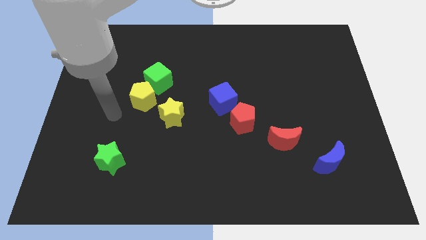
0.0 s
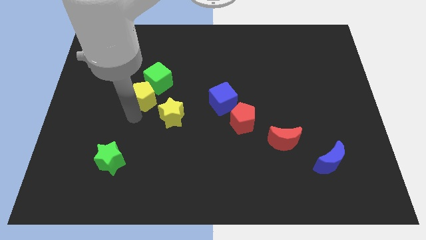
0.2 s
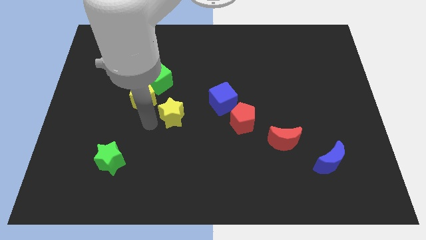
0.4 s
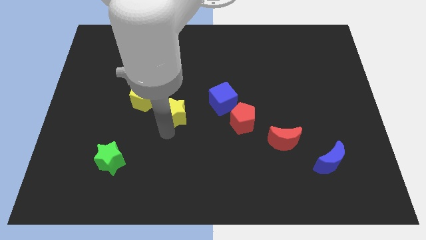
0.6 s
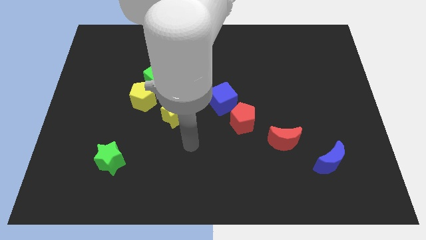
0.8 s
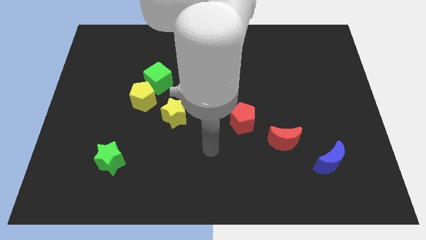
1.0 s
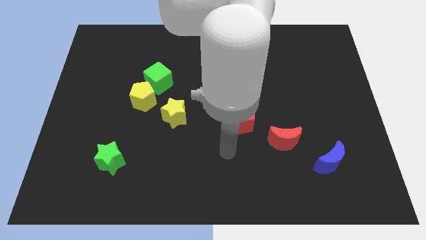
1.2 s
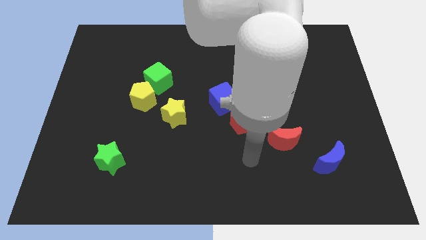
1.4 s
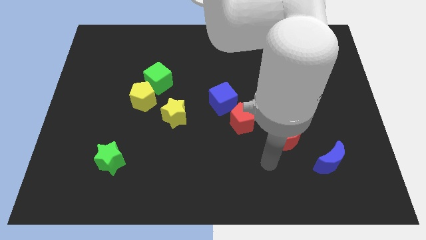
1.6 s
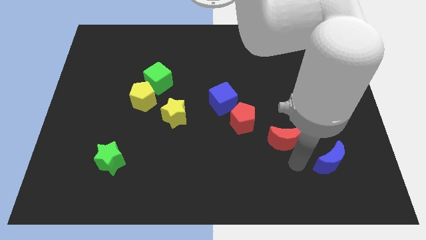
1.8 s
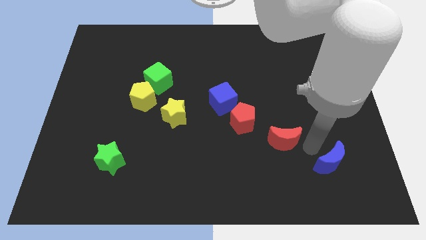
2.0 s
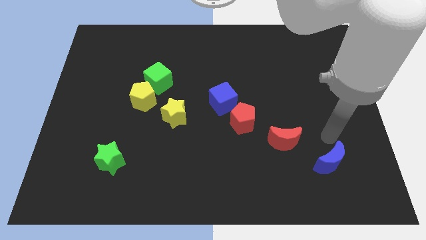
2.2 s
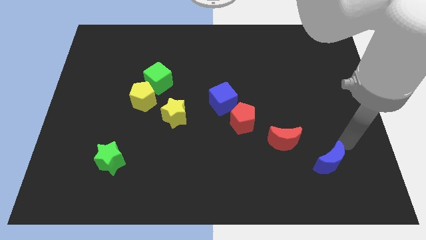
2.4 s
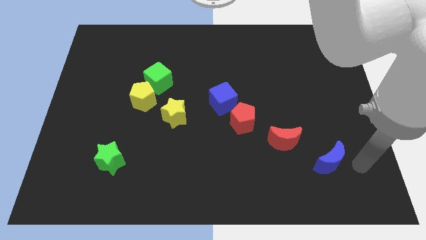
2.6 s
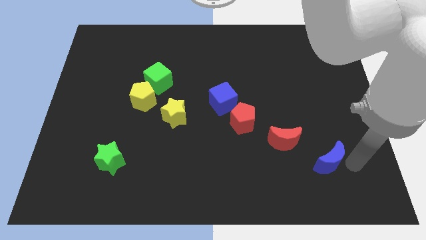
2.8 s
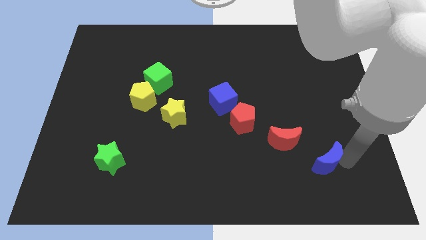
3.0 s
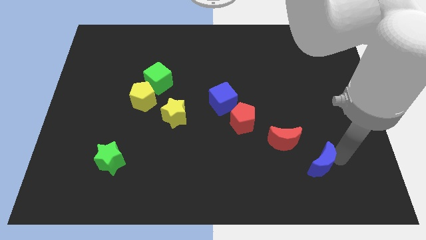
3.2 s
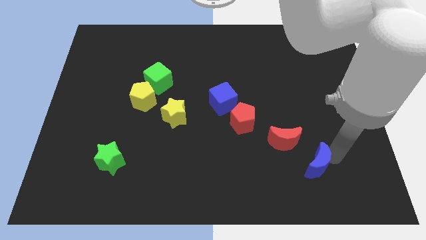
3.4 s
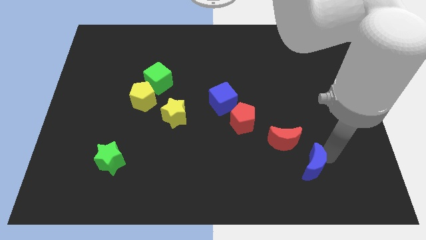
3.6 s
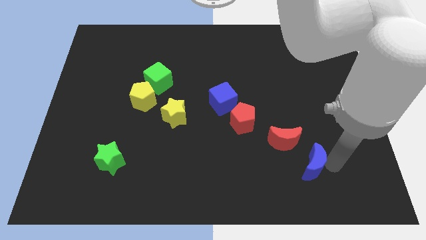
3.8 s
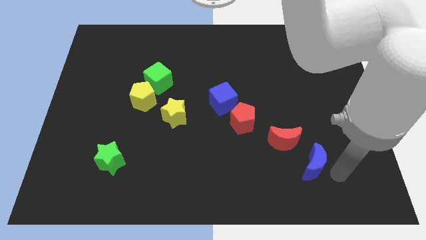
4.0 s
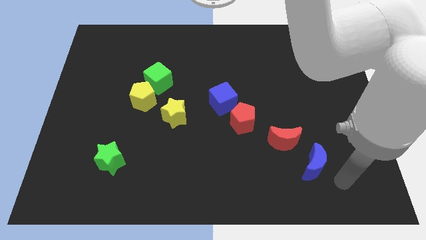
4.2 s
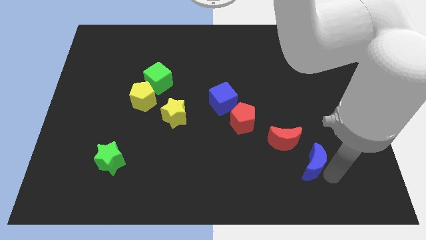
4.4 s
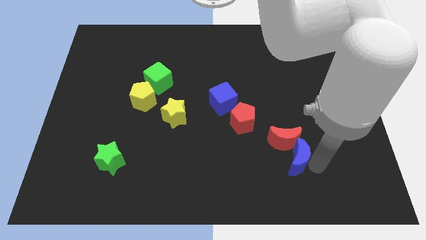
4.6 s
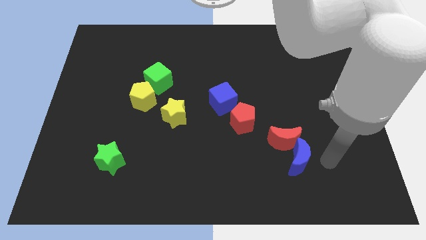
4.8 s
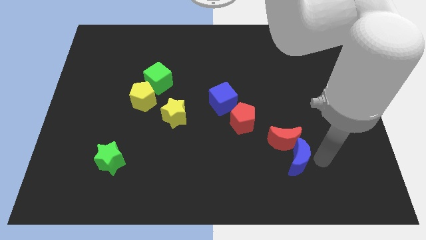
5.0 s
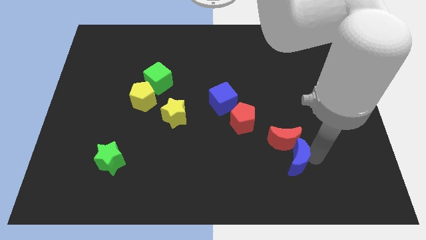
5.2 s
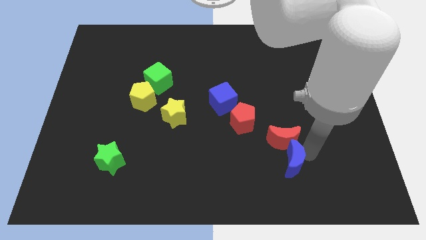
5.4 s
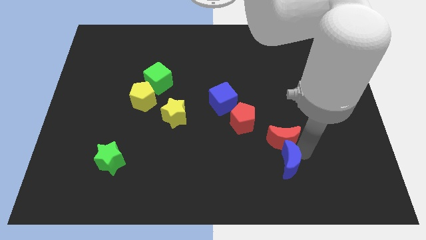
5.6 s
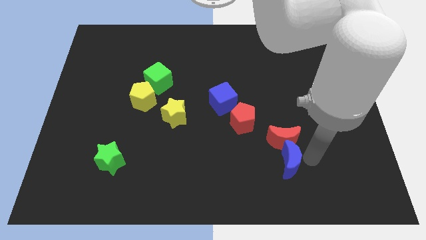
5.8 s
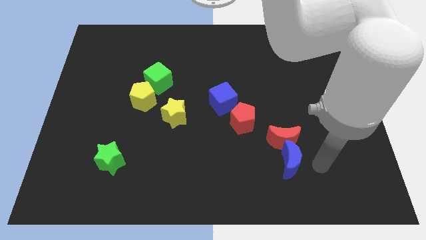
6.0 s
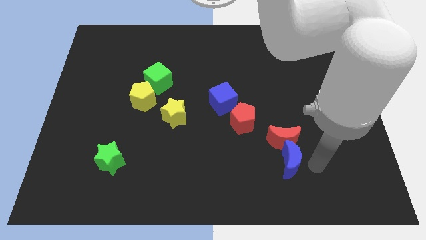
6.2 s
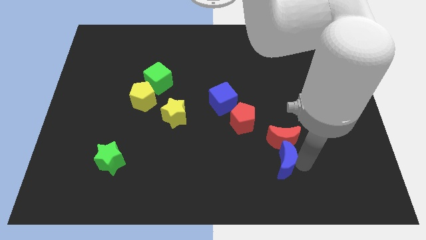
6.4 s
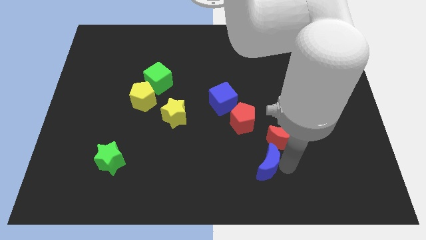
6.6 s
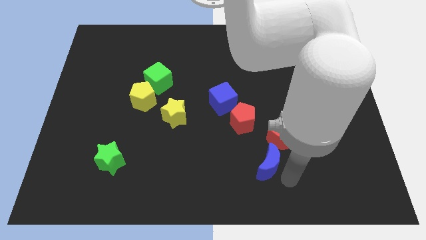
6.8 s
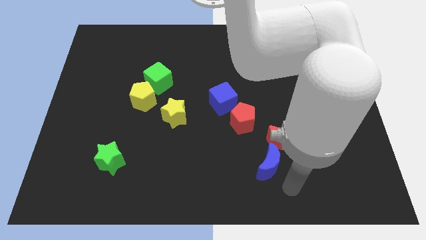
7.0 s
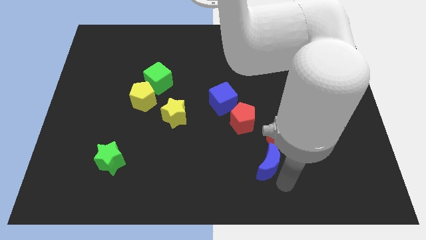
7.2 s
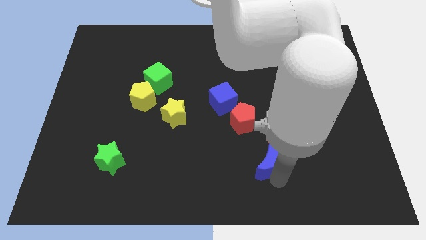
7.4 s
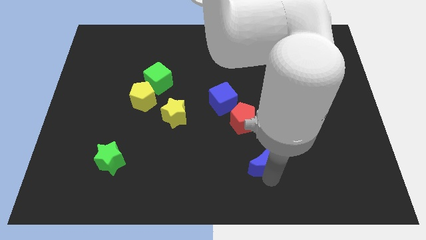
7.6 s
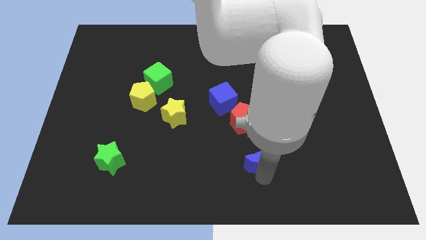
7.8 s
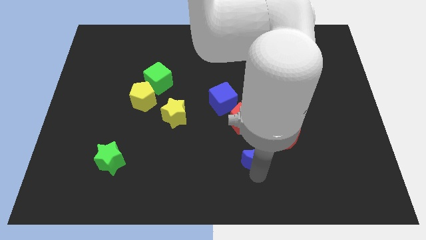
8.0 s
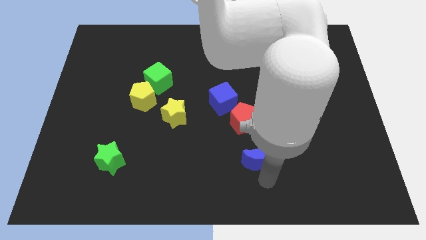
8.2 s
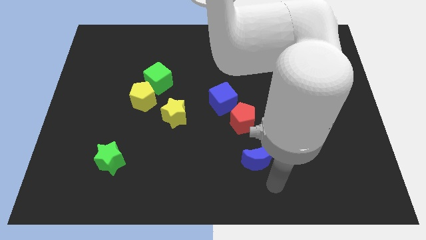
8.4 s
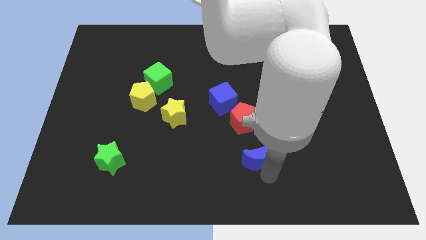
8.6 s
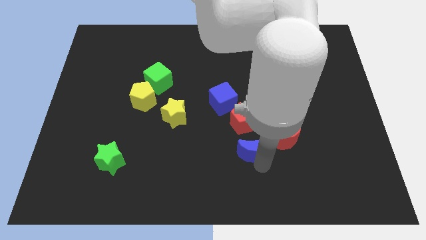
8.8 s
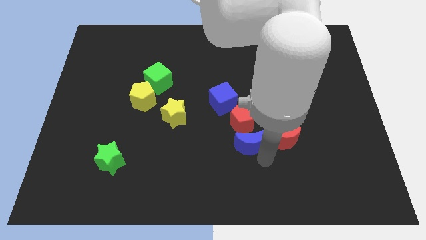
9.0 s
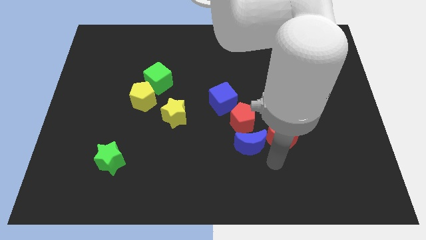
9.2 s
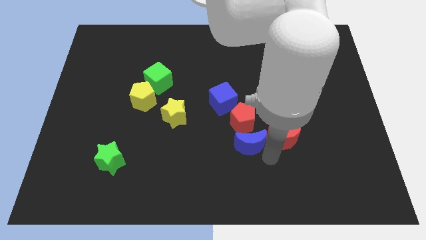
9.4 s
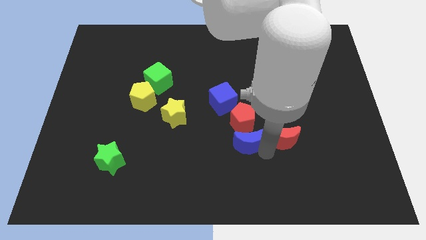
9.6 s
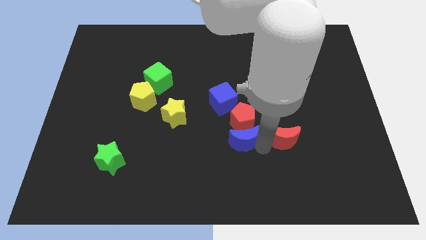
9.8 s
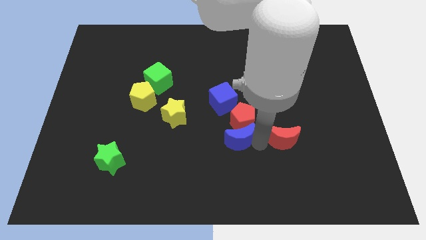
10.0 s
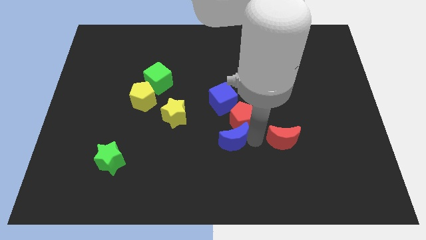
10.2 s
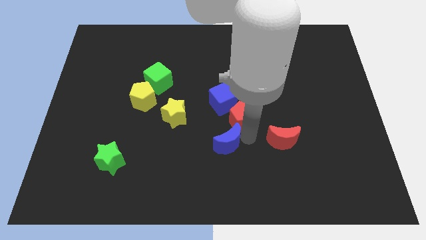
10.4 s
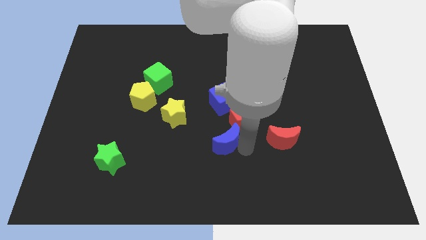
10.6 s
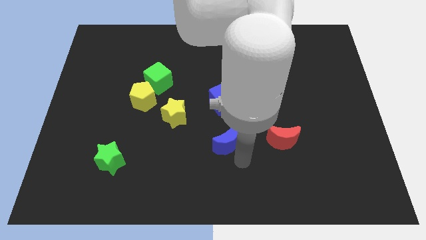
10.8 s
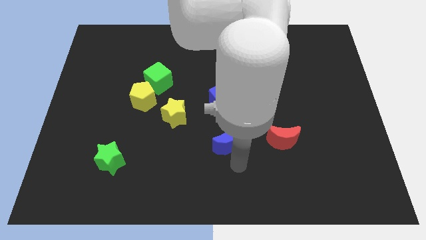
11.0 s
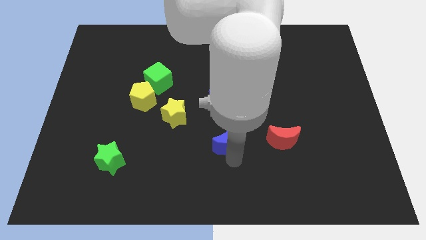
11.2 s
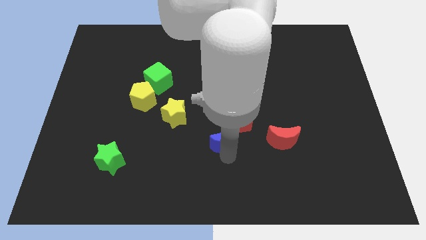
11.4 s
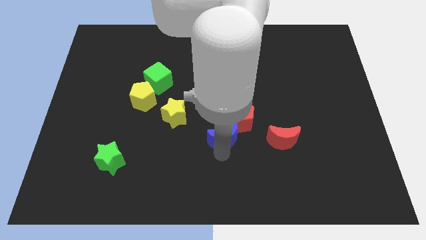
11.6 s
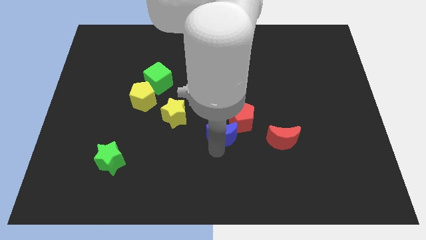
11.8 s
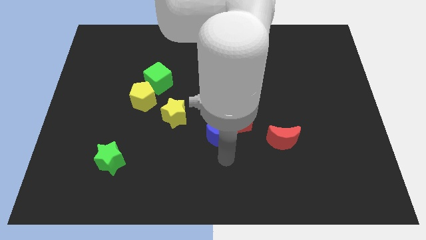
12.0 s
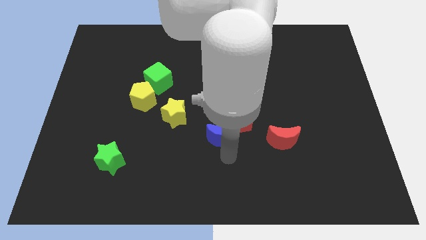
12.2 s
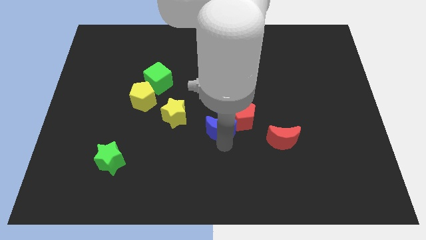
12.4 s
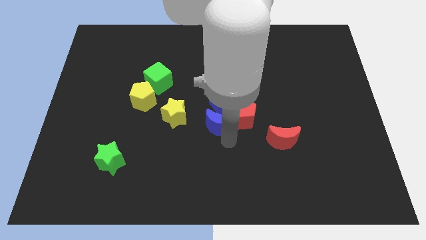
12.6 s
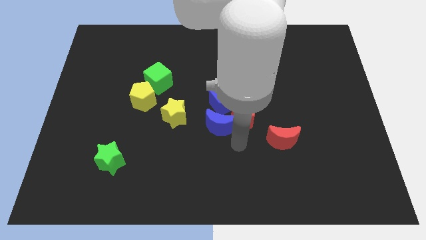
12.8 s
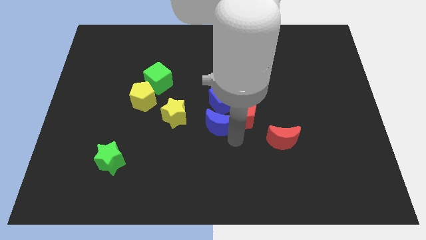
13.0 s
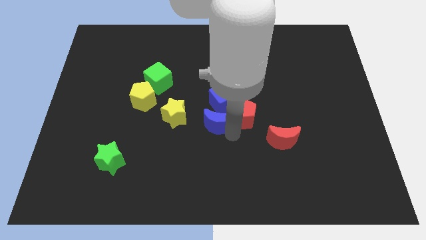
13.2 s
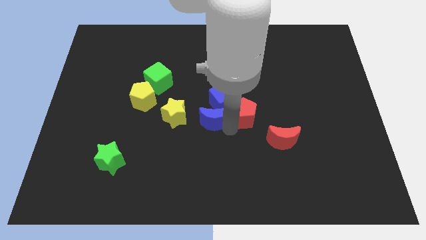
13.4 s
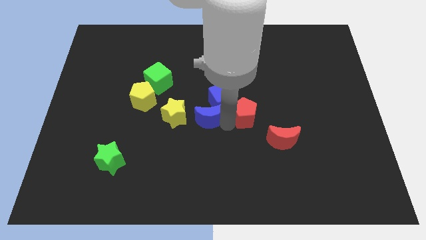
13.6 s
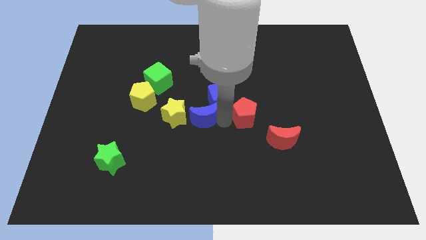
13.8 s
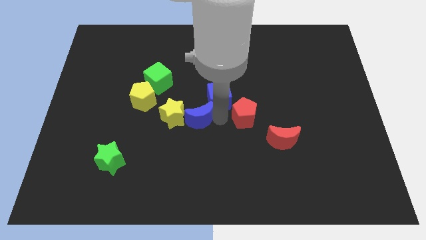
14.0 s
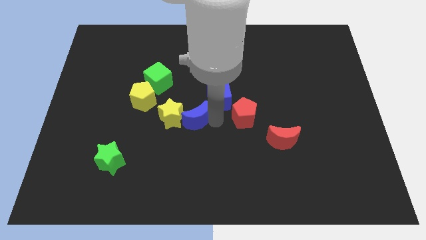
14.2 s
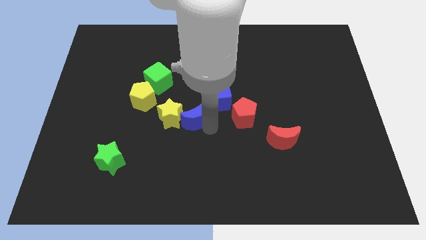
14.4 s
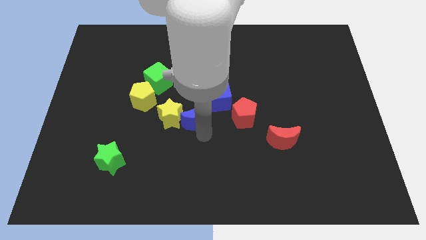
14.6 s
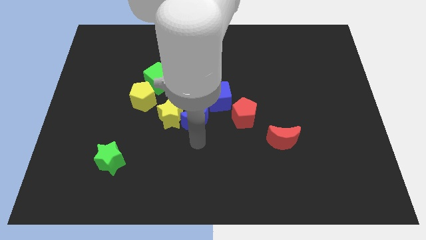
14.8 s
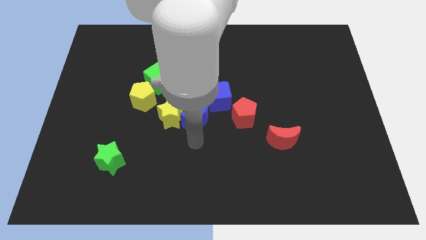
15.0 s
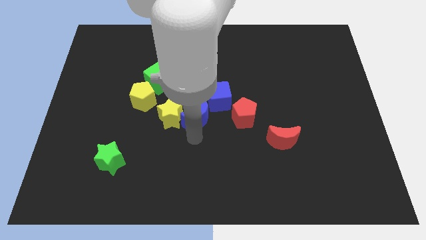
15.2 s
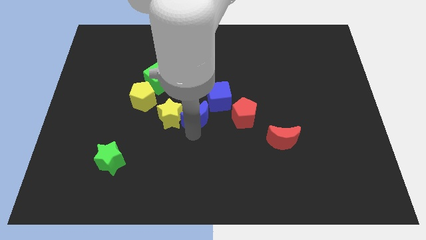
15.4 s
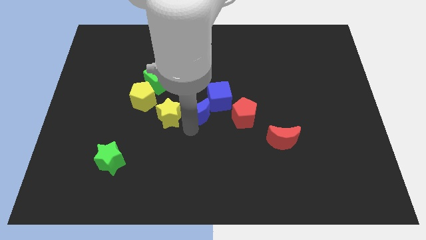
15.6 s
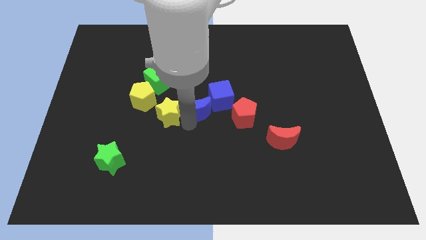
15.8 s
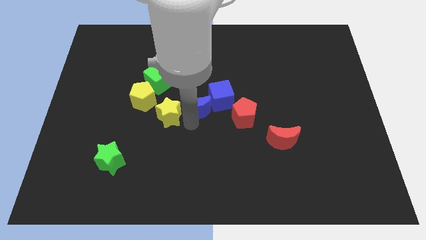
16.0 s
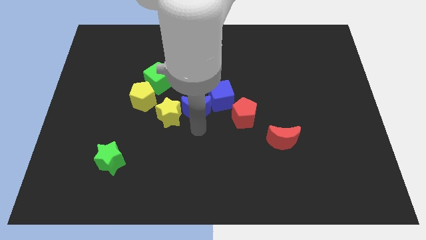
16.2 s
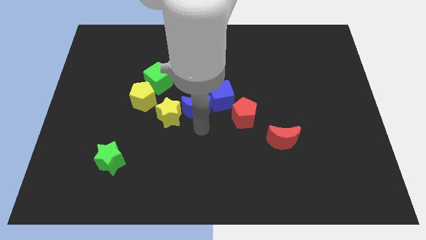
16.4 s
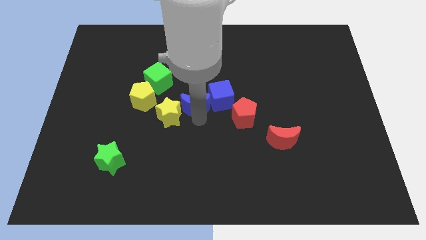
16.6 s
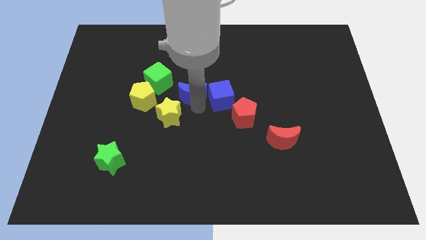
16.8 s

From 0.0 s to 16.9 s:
put the blue moon above the yellow star
